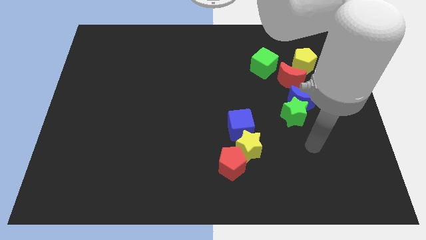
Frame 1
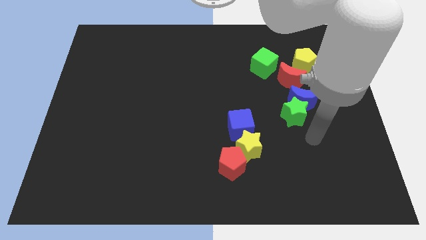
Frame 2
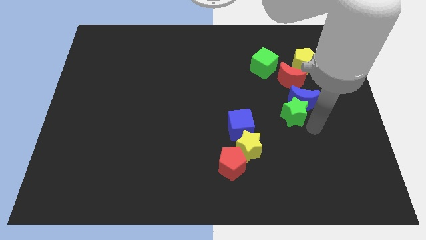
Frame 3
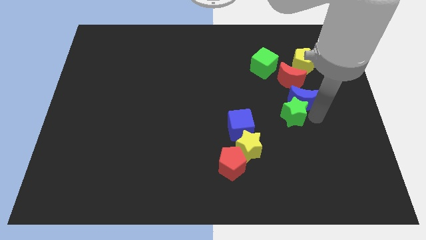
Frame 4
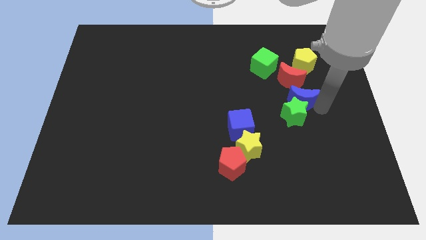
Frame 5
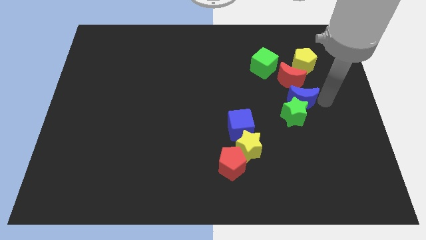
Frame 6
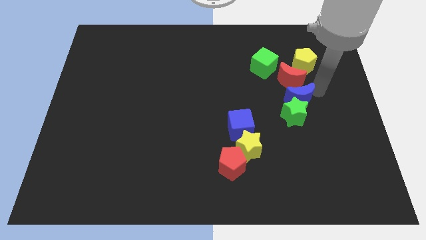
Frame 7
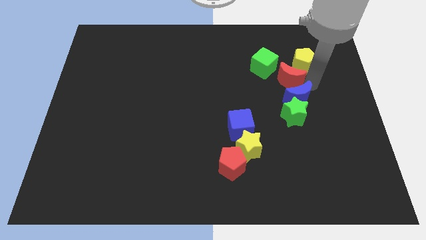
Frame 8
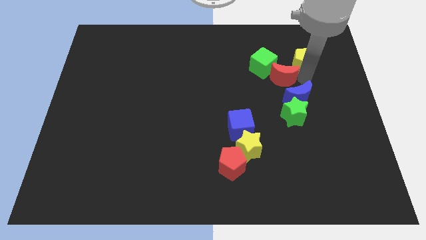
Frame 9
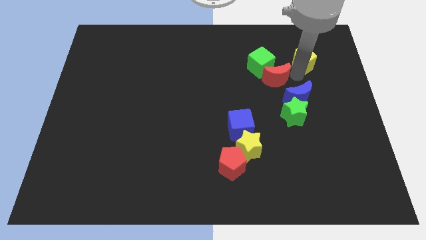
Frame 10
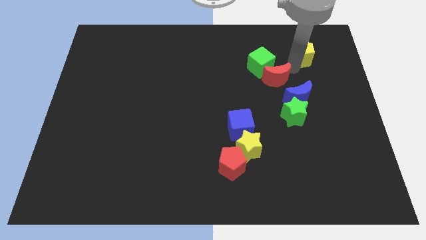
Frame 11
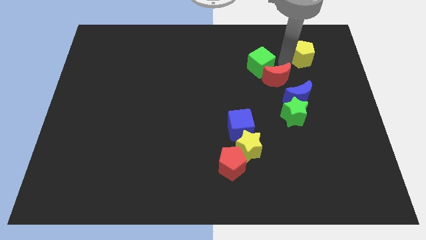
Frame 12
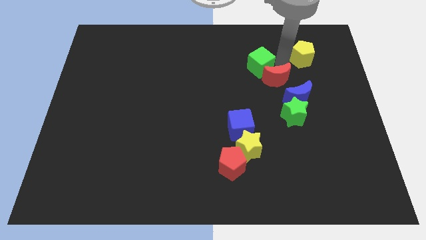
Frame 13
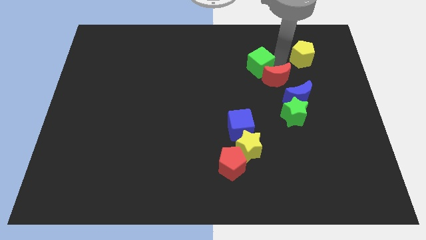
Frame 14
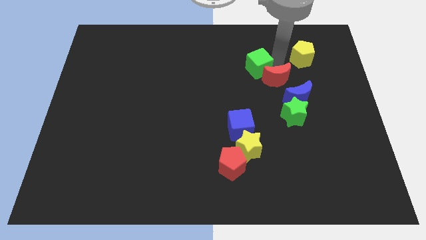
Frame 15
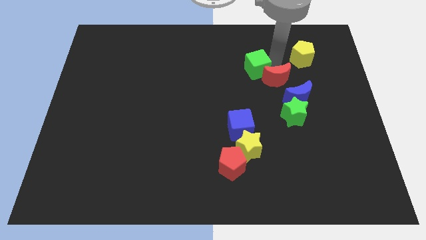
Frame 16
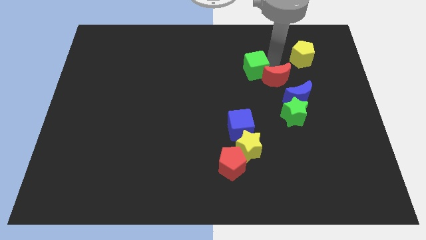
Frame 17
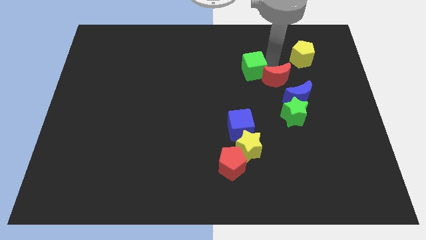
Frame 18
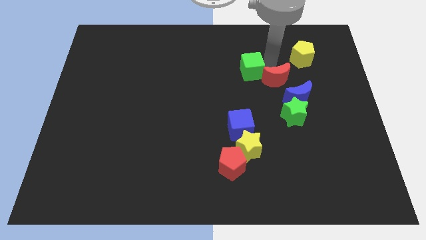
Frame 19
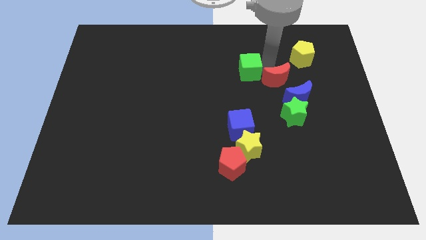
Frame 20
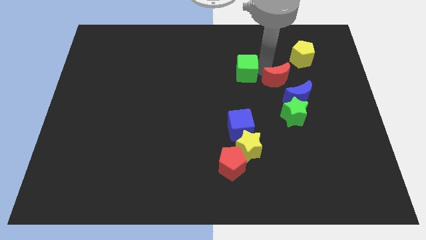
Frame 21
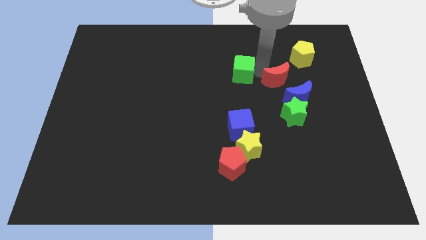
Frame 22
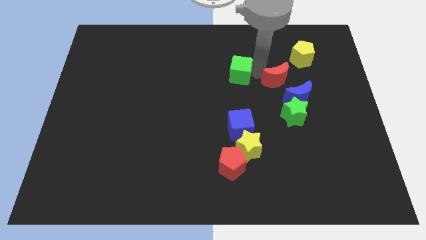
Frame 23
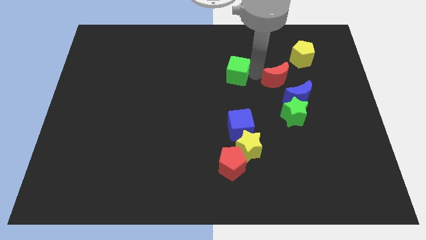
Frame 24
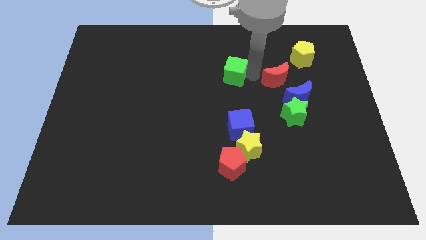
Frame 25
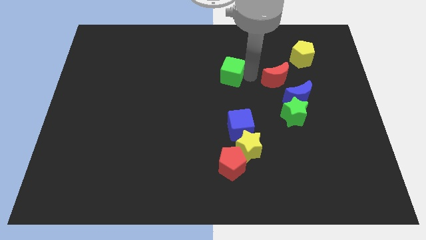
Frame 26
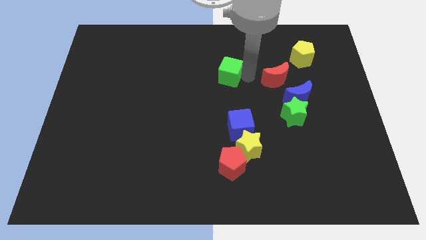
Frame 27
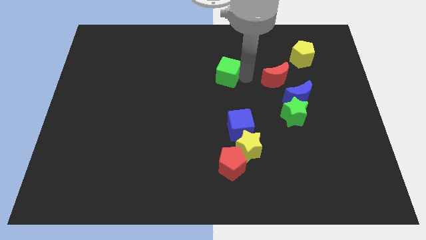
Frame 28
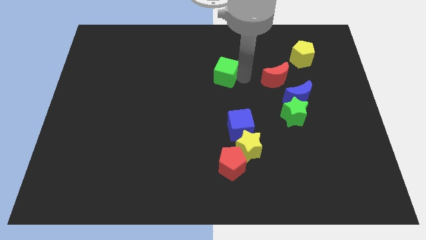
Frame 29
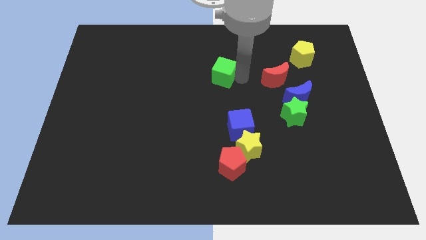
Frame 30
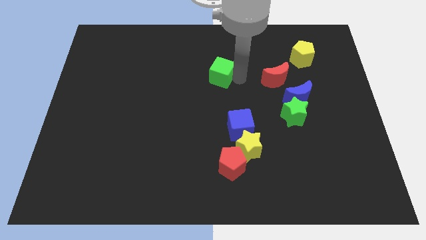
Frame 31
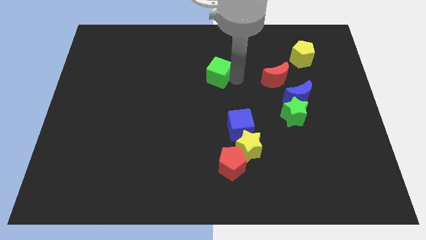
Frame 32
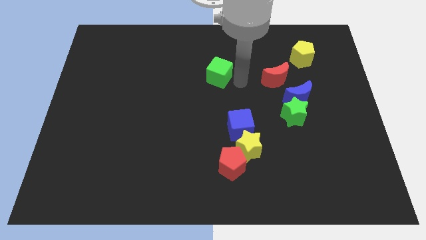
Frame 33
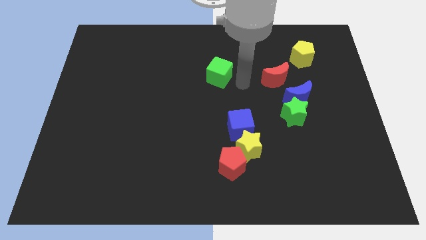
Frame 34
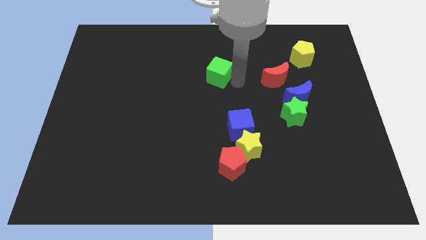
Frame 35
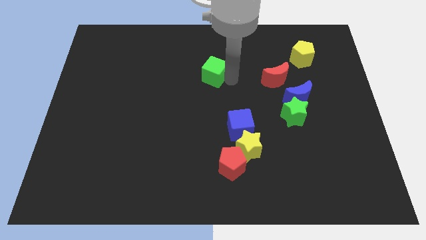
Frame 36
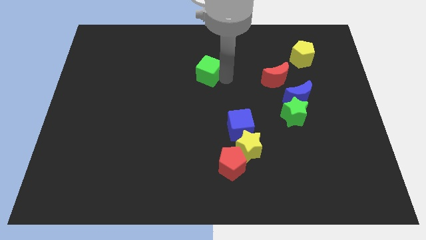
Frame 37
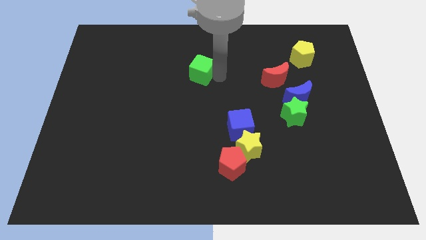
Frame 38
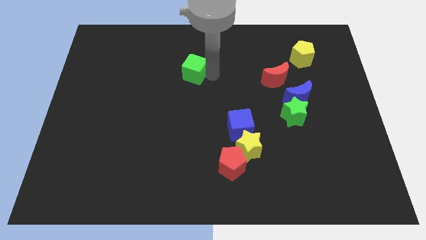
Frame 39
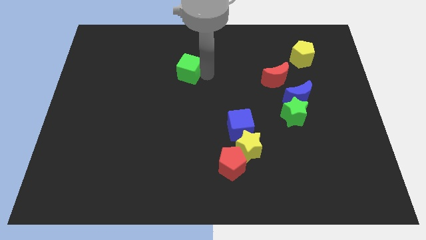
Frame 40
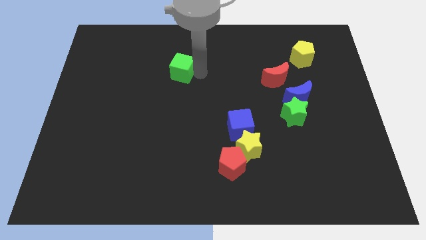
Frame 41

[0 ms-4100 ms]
slide the green cube left

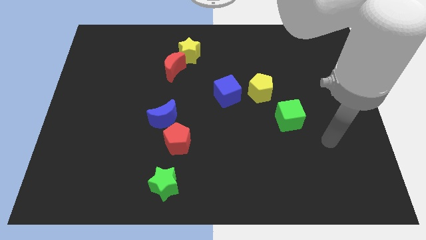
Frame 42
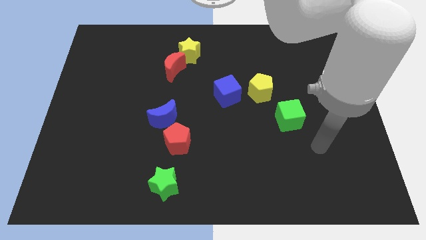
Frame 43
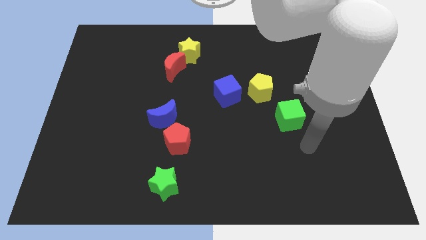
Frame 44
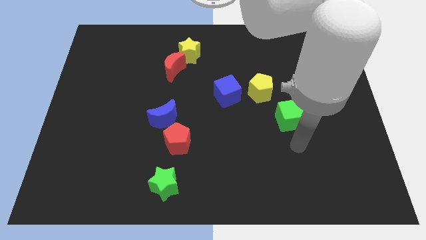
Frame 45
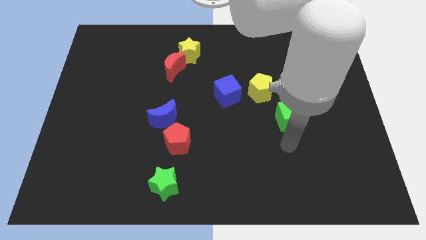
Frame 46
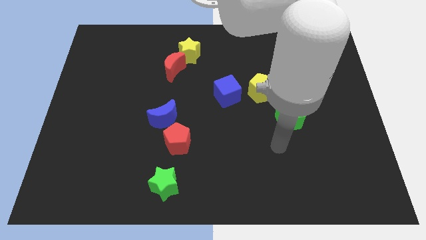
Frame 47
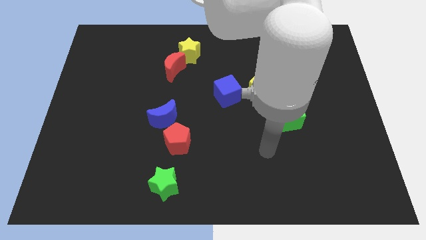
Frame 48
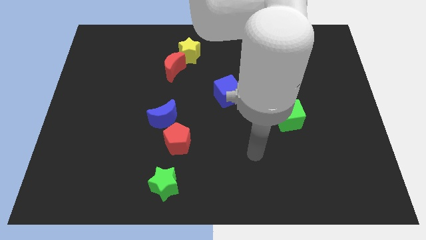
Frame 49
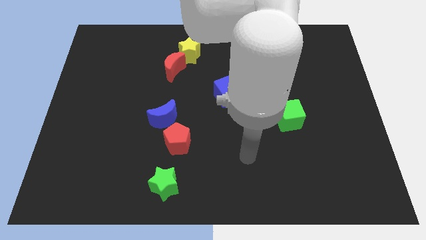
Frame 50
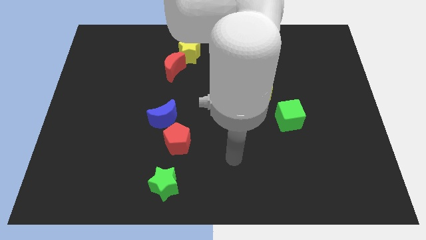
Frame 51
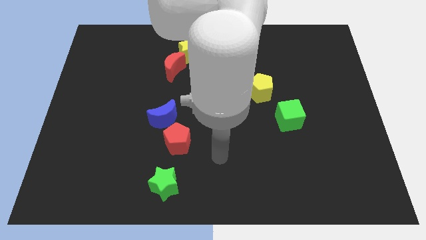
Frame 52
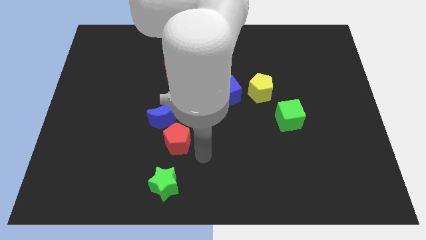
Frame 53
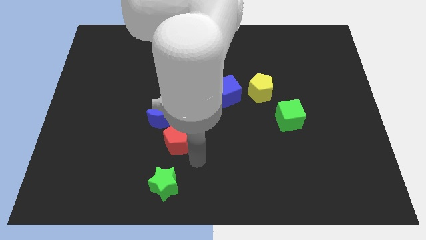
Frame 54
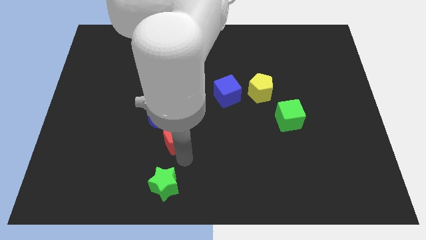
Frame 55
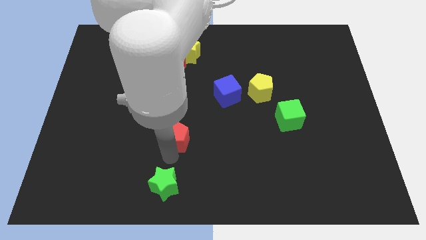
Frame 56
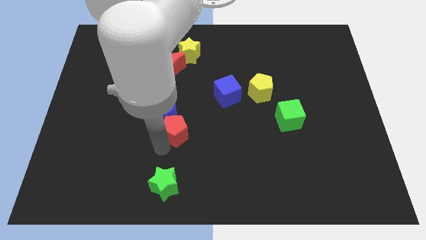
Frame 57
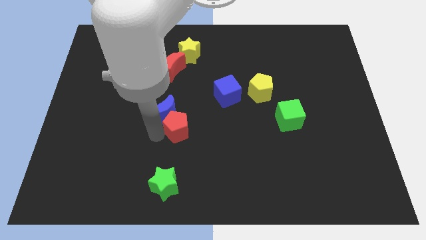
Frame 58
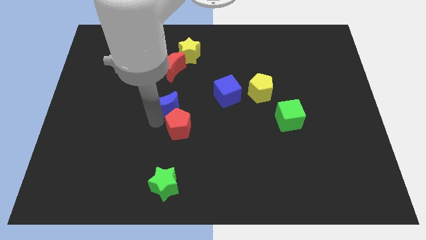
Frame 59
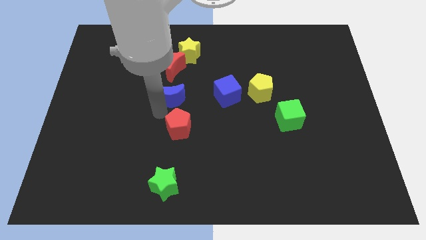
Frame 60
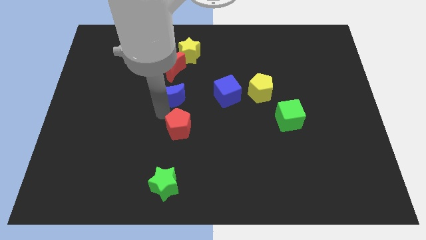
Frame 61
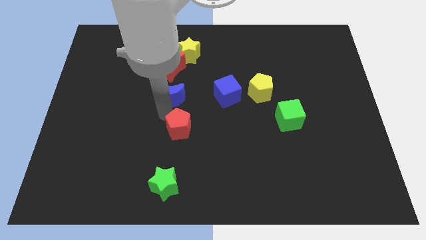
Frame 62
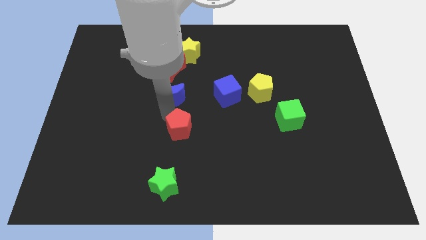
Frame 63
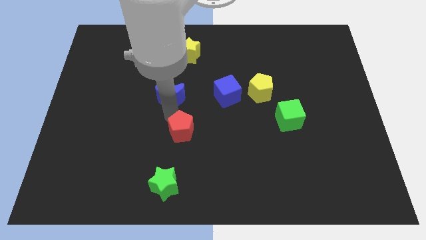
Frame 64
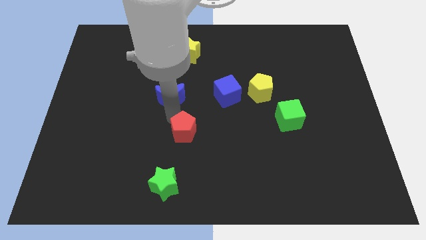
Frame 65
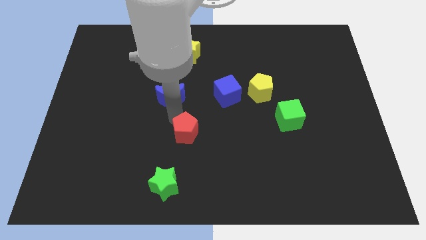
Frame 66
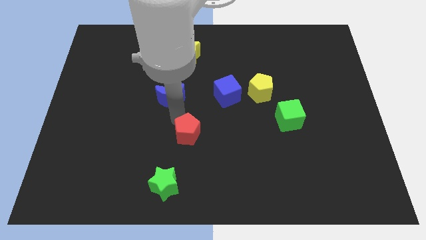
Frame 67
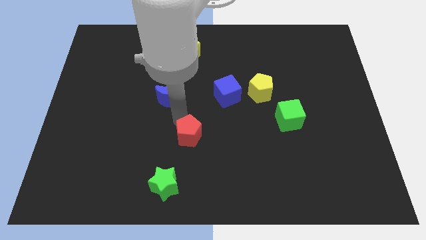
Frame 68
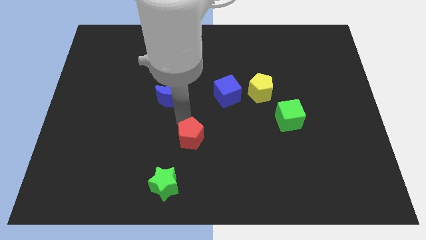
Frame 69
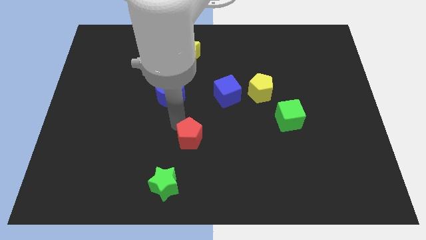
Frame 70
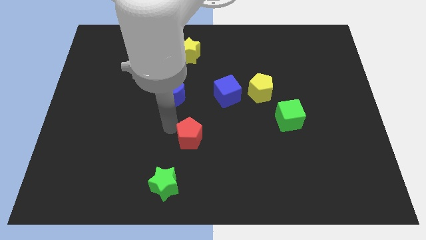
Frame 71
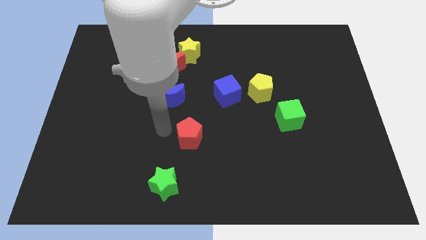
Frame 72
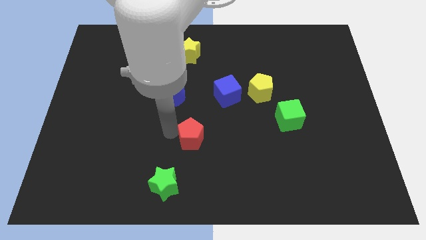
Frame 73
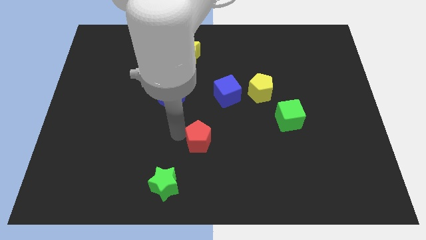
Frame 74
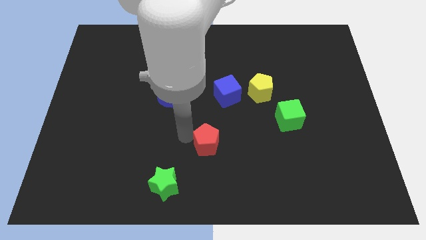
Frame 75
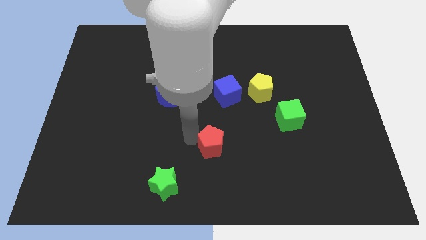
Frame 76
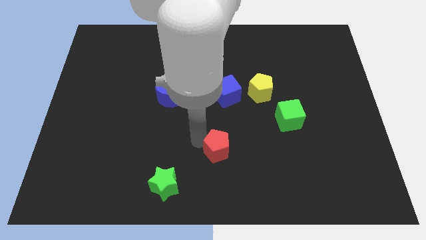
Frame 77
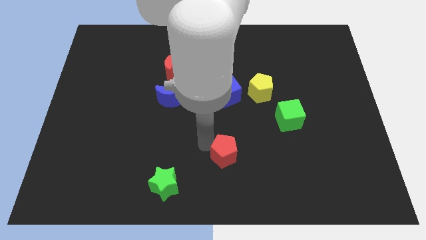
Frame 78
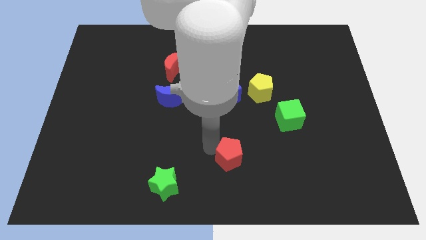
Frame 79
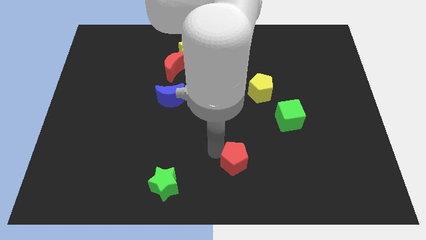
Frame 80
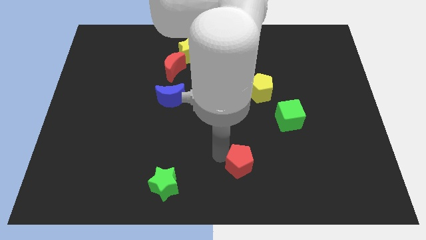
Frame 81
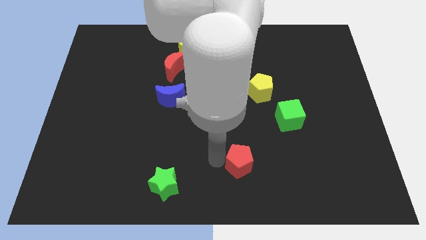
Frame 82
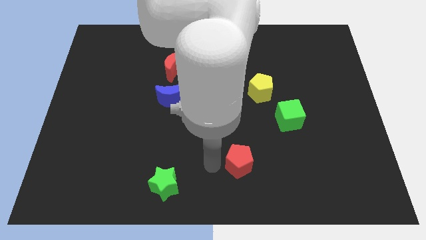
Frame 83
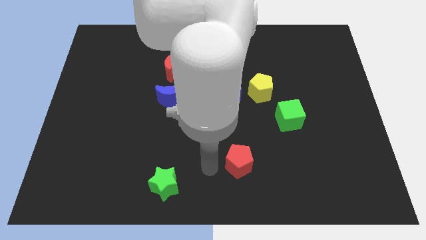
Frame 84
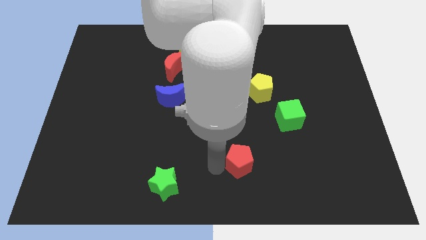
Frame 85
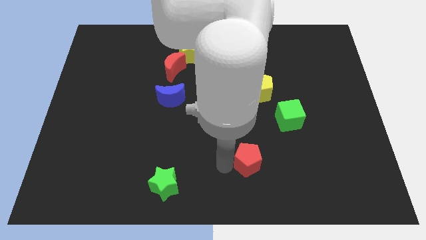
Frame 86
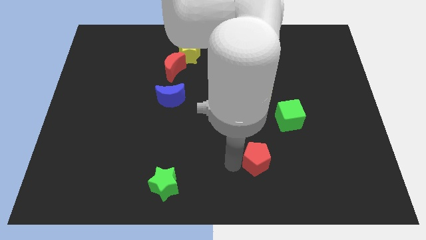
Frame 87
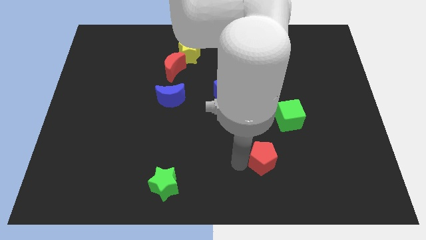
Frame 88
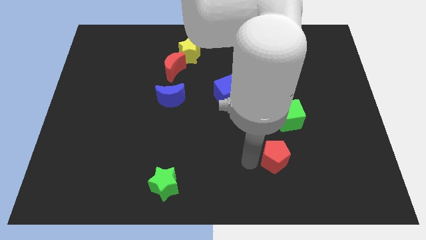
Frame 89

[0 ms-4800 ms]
slide the red pentagon right
